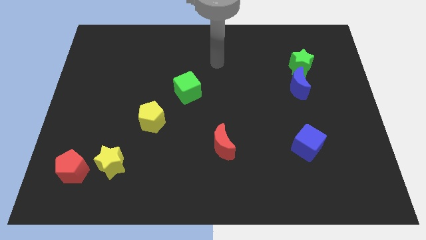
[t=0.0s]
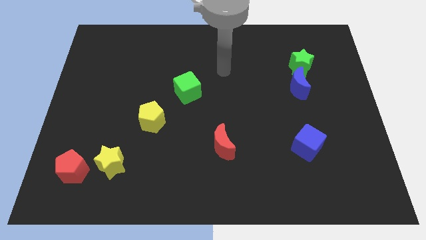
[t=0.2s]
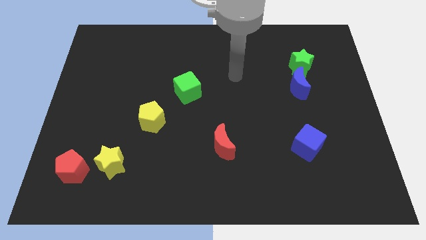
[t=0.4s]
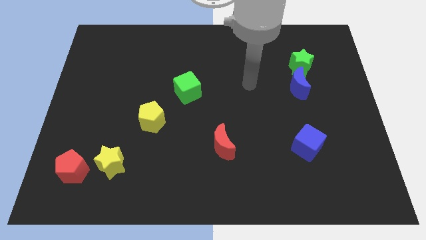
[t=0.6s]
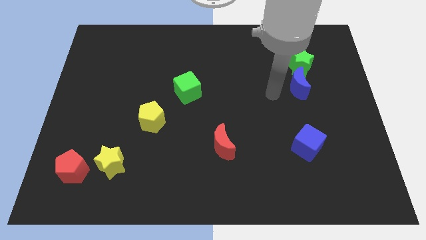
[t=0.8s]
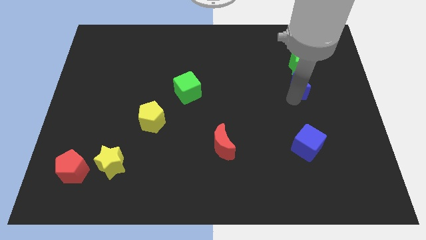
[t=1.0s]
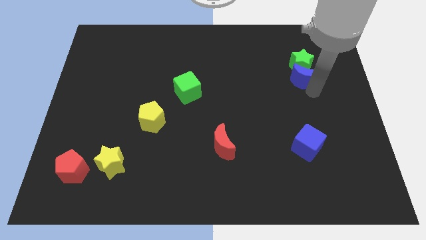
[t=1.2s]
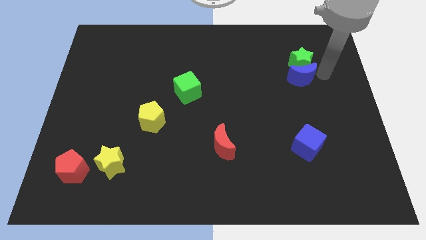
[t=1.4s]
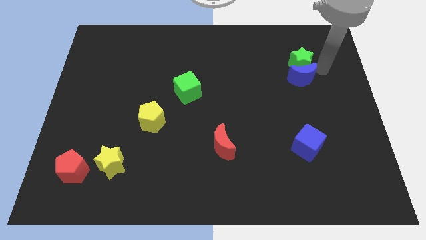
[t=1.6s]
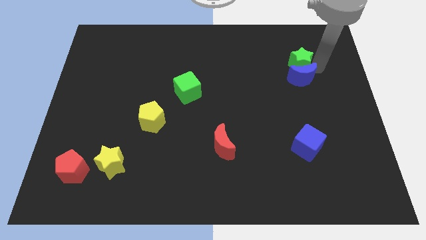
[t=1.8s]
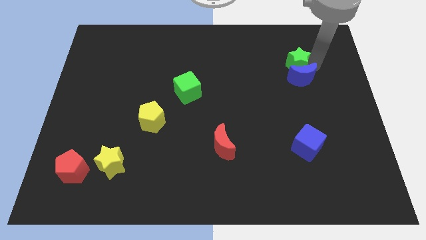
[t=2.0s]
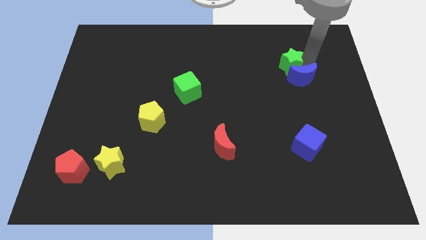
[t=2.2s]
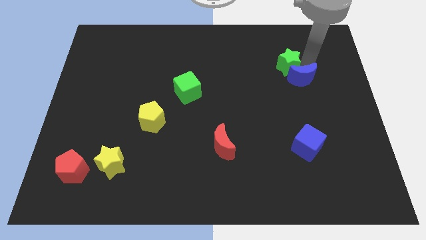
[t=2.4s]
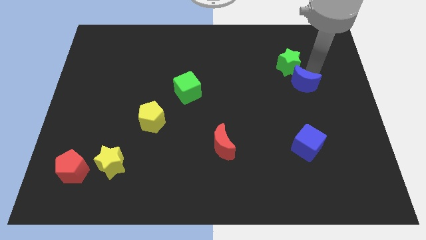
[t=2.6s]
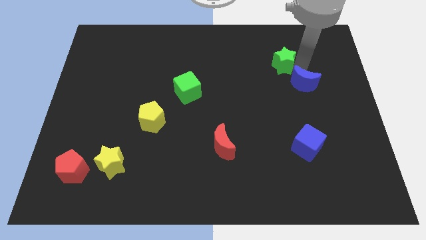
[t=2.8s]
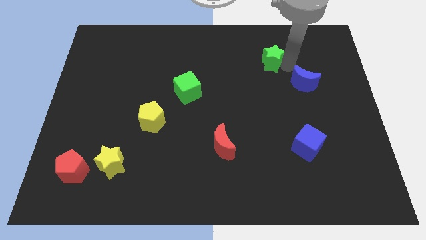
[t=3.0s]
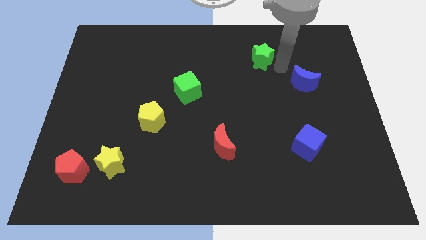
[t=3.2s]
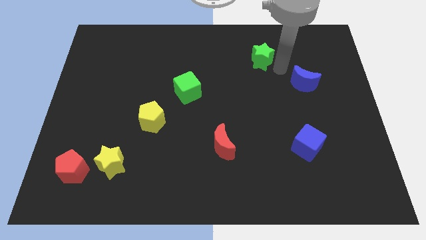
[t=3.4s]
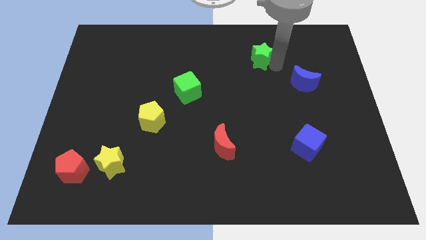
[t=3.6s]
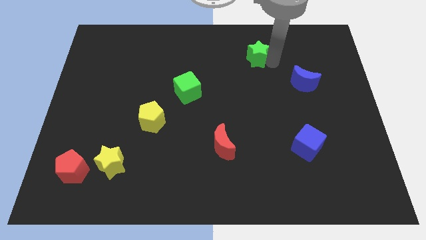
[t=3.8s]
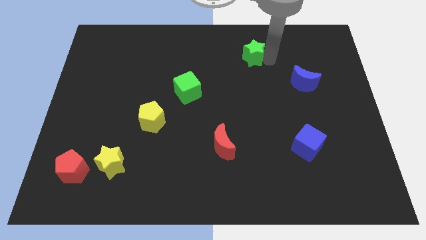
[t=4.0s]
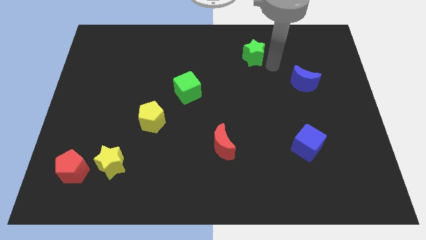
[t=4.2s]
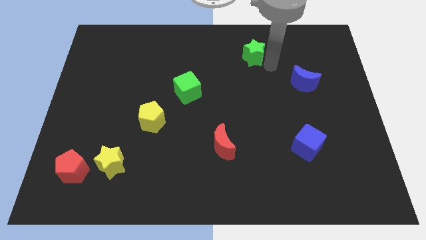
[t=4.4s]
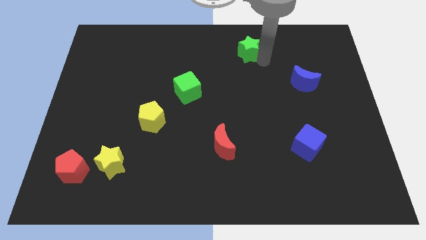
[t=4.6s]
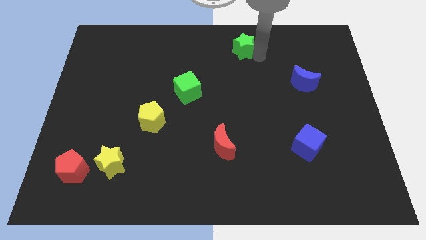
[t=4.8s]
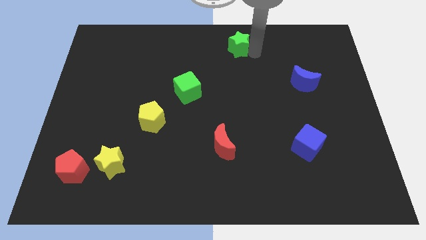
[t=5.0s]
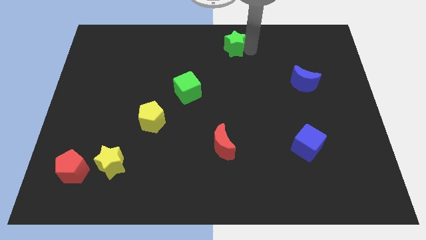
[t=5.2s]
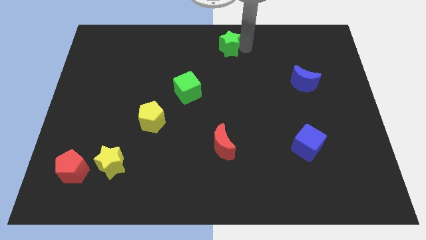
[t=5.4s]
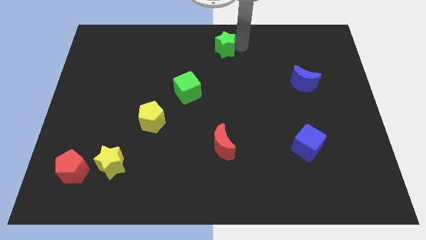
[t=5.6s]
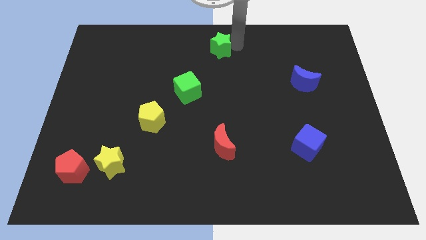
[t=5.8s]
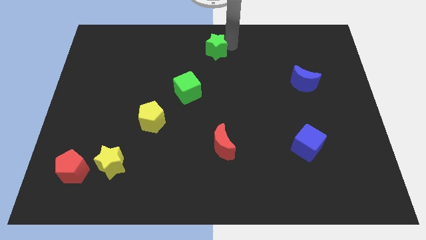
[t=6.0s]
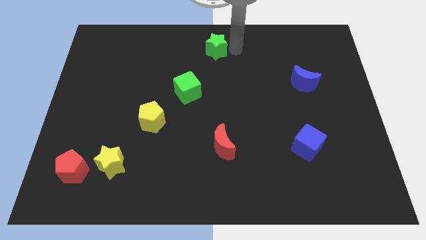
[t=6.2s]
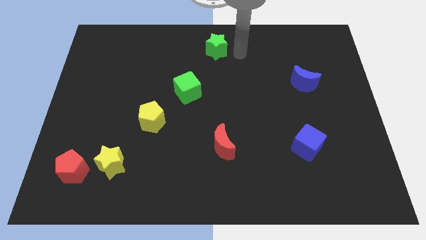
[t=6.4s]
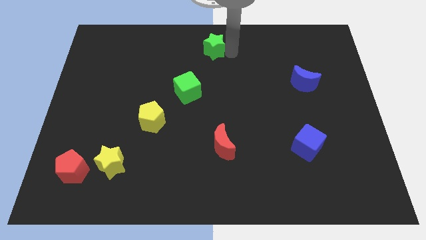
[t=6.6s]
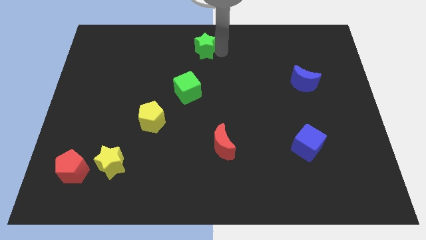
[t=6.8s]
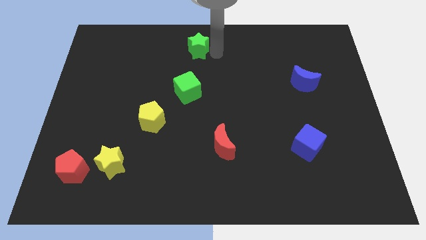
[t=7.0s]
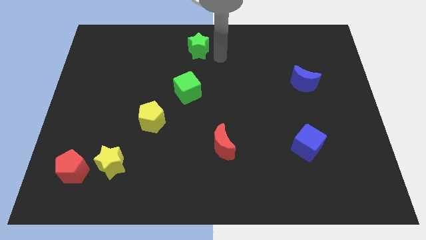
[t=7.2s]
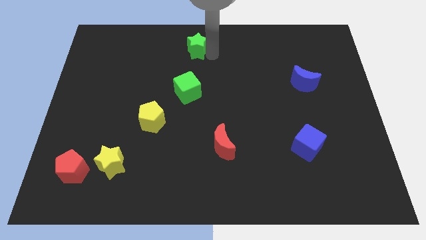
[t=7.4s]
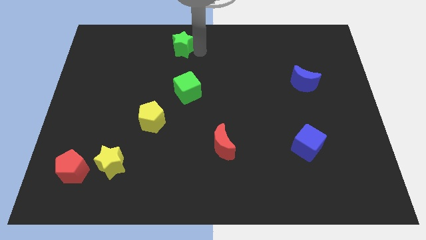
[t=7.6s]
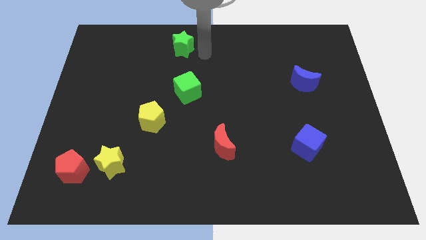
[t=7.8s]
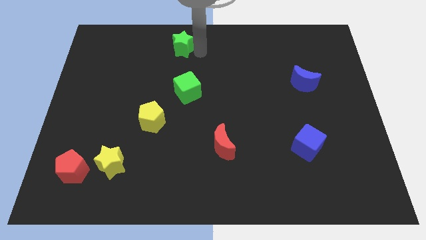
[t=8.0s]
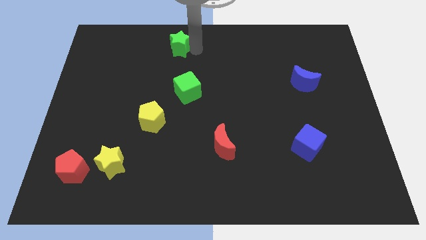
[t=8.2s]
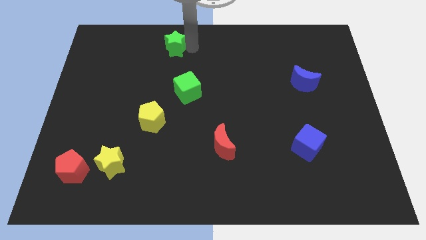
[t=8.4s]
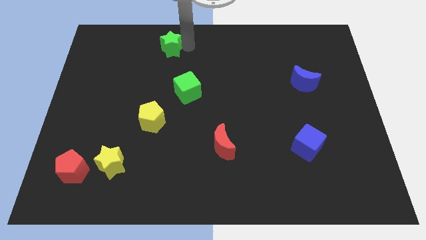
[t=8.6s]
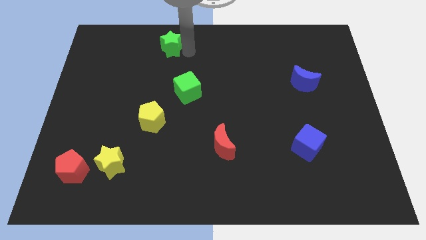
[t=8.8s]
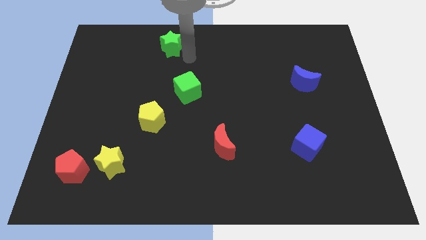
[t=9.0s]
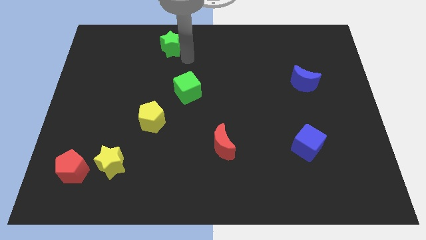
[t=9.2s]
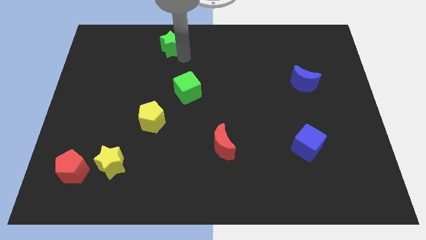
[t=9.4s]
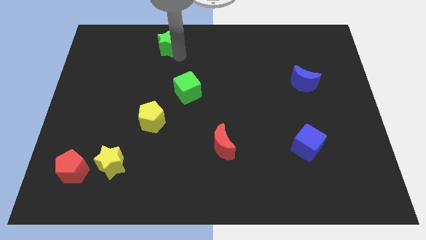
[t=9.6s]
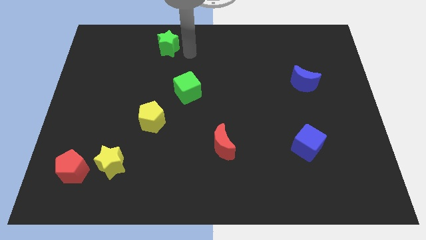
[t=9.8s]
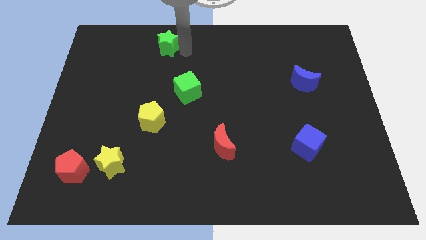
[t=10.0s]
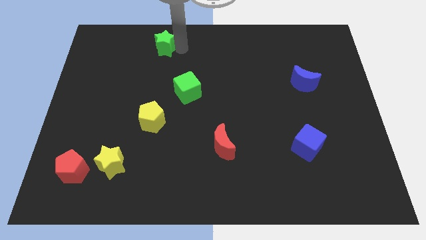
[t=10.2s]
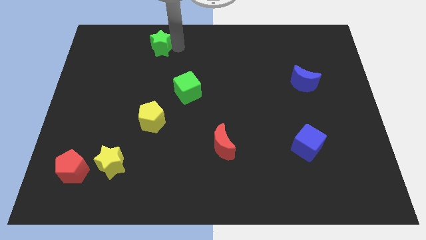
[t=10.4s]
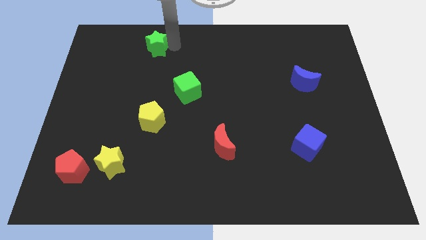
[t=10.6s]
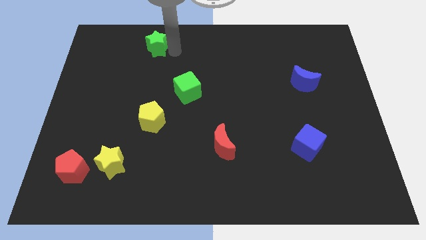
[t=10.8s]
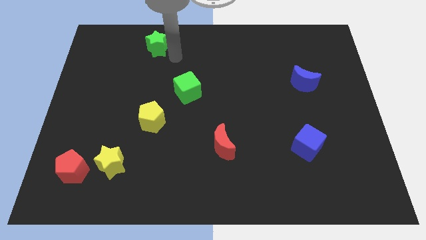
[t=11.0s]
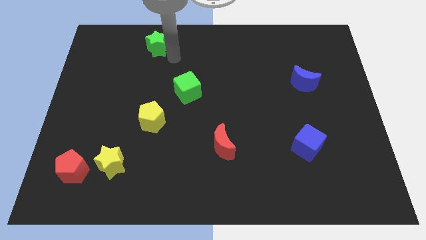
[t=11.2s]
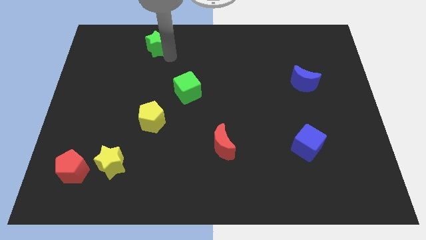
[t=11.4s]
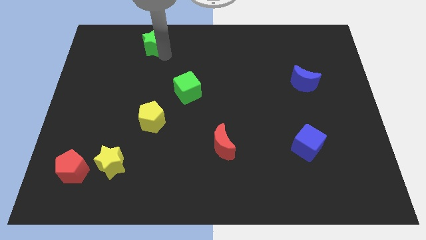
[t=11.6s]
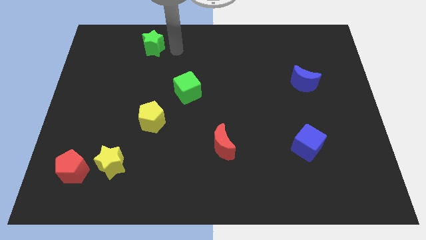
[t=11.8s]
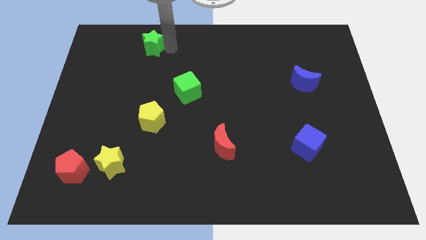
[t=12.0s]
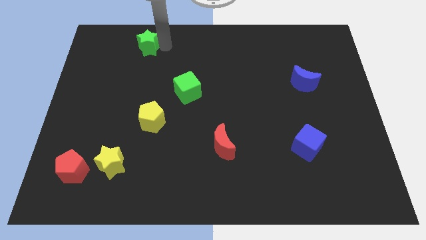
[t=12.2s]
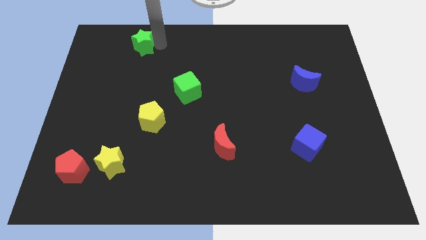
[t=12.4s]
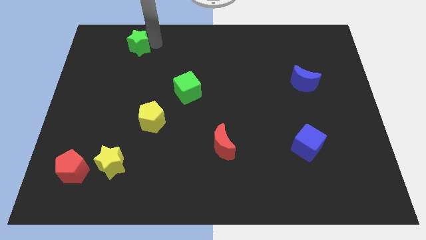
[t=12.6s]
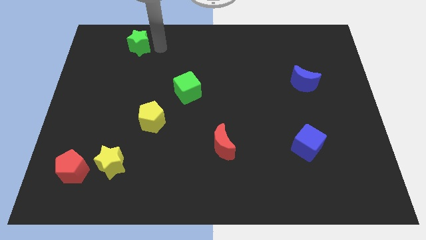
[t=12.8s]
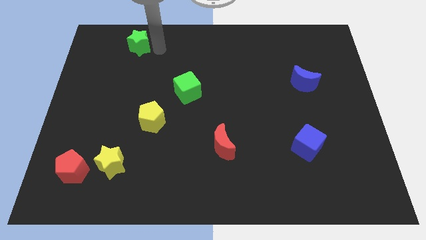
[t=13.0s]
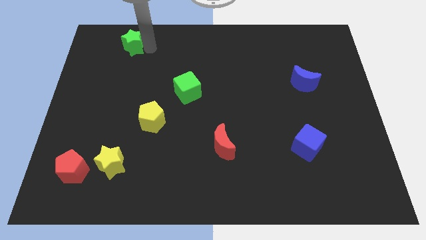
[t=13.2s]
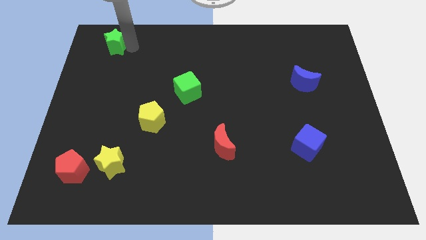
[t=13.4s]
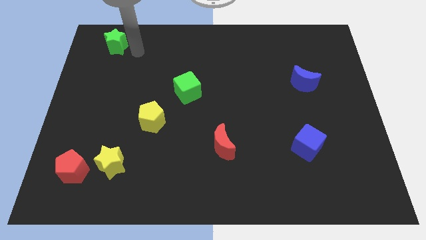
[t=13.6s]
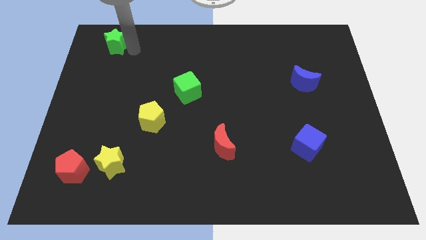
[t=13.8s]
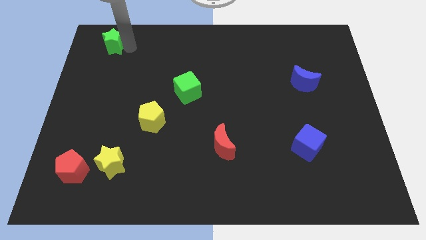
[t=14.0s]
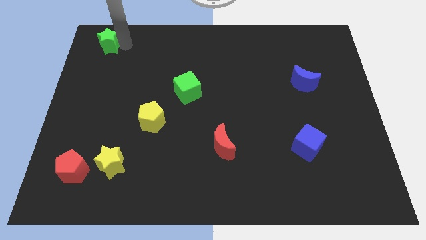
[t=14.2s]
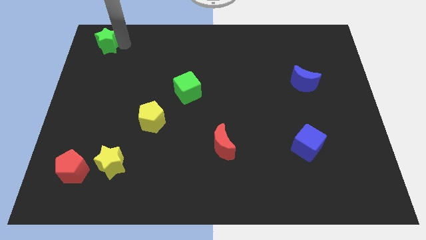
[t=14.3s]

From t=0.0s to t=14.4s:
push the green star to the upper left corner
